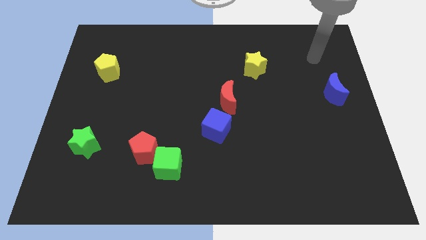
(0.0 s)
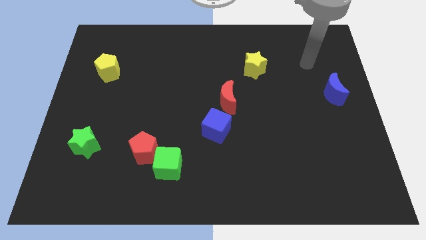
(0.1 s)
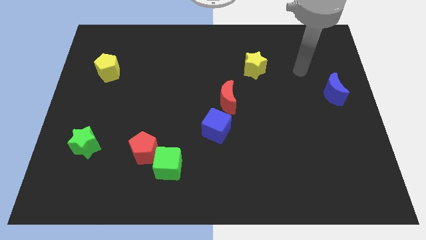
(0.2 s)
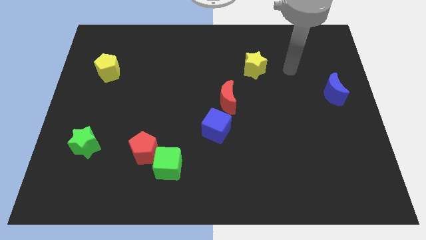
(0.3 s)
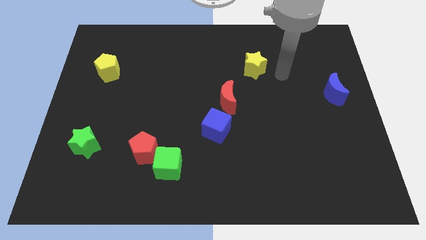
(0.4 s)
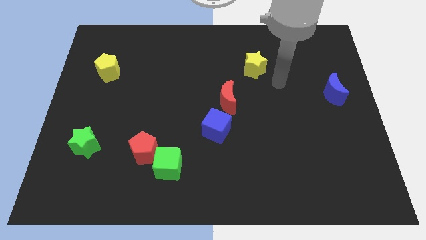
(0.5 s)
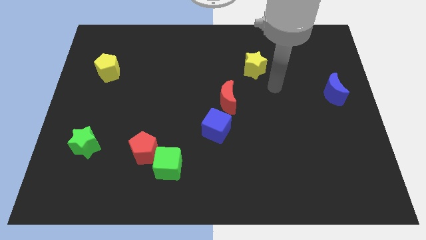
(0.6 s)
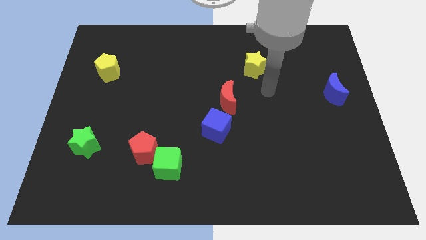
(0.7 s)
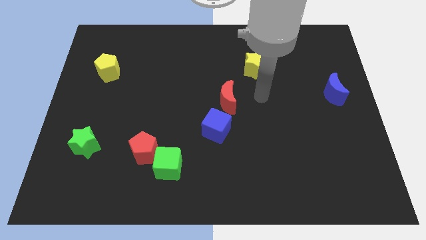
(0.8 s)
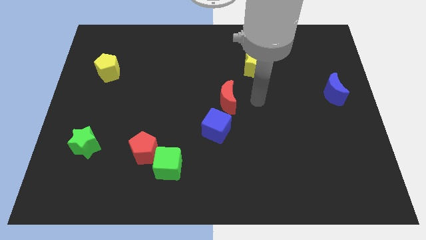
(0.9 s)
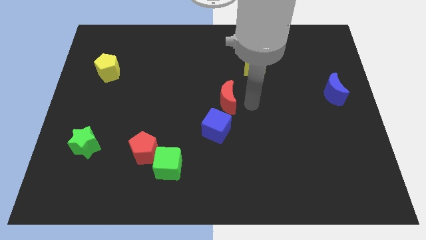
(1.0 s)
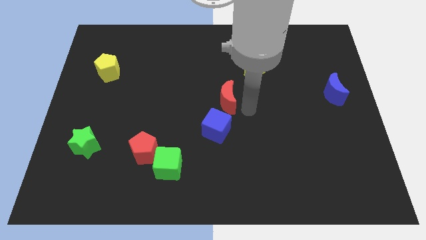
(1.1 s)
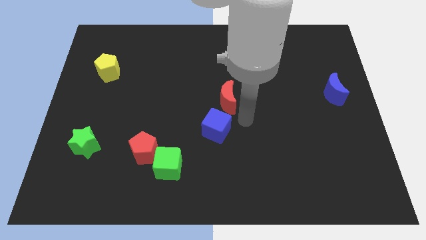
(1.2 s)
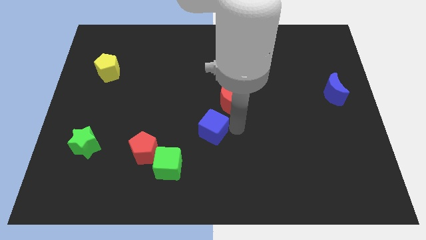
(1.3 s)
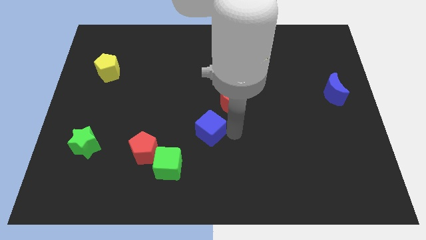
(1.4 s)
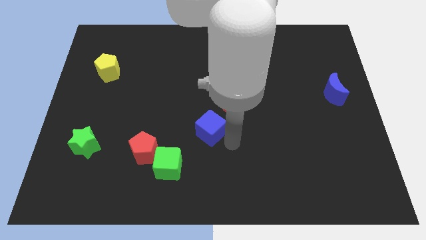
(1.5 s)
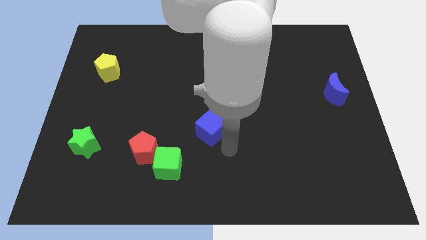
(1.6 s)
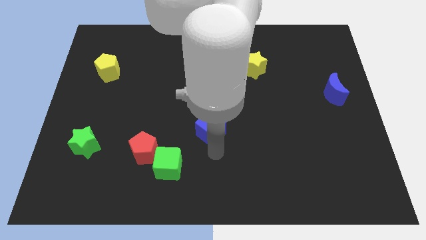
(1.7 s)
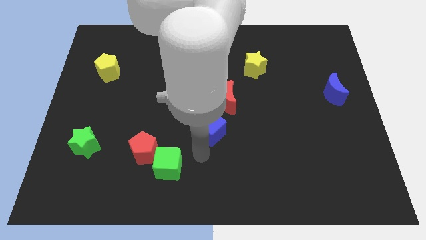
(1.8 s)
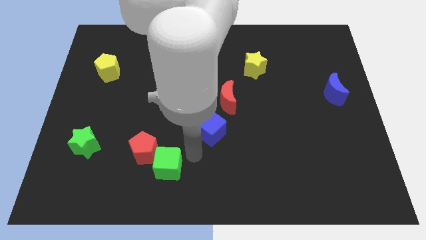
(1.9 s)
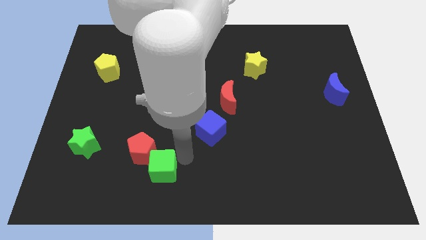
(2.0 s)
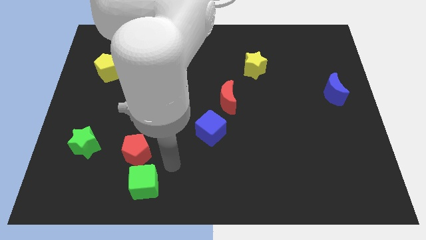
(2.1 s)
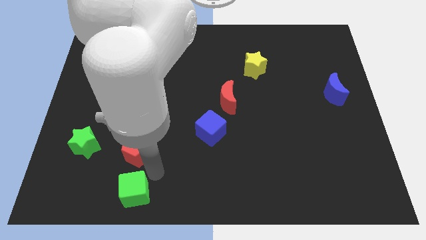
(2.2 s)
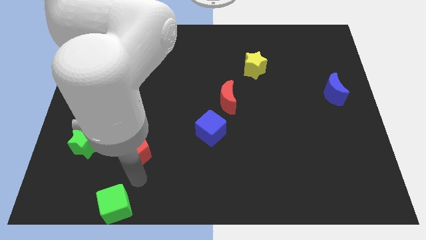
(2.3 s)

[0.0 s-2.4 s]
pull the red pentagon apart from the green cube

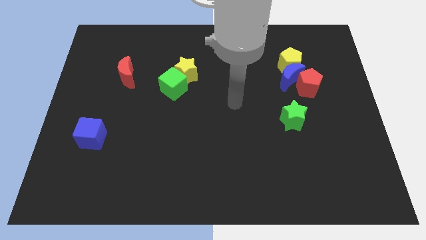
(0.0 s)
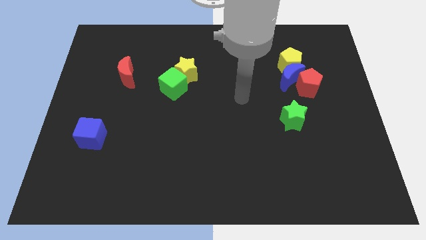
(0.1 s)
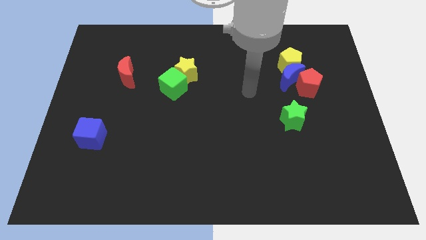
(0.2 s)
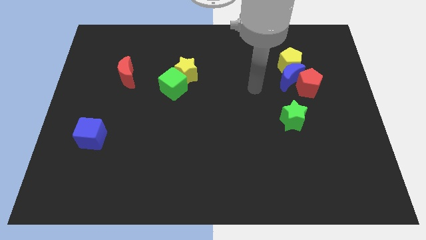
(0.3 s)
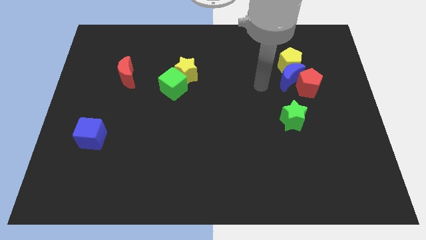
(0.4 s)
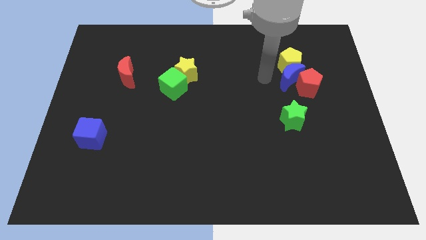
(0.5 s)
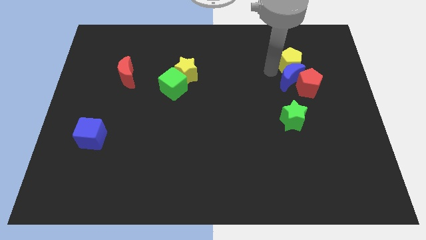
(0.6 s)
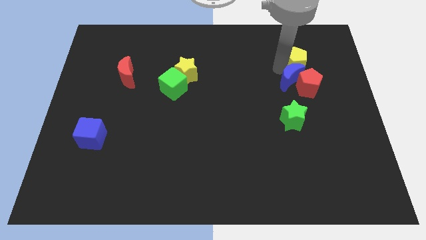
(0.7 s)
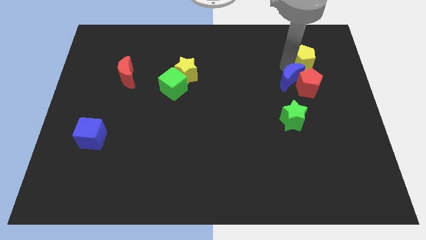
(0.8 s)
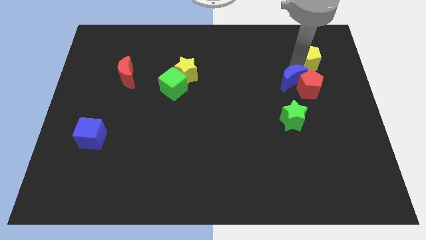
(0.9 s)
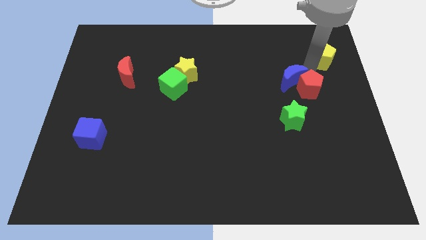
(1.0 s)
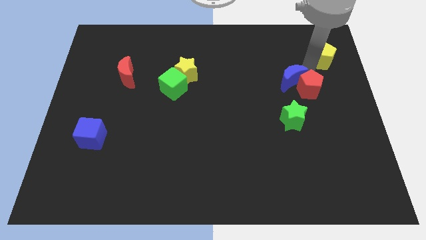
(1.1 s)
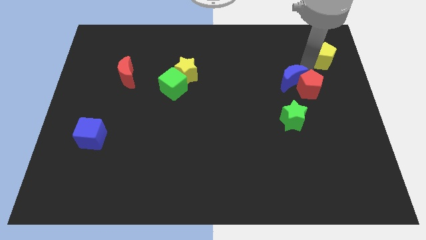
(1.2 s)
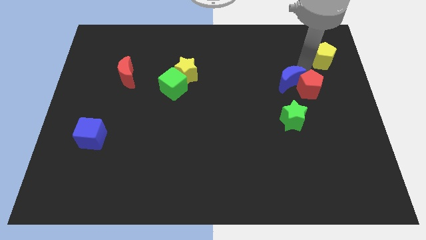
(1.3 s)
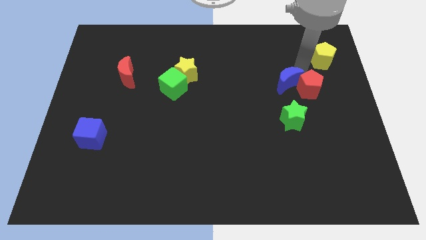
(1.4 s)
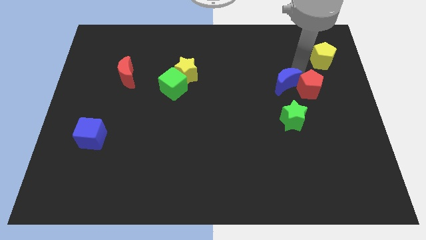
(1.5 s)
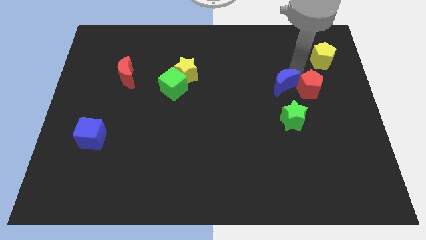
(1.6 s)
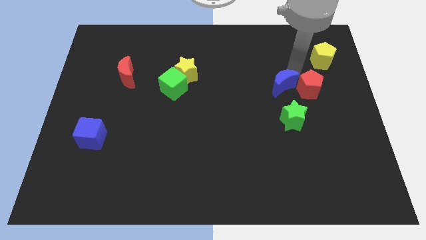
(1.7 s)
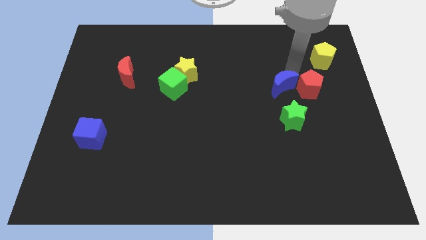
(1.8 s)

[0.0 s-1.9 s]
separate the blue moon from the yellow pentagon and red pentagon

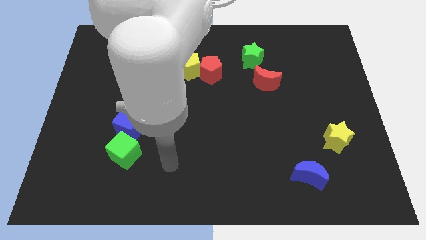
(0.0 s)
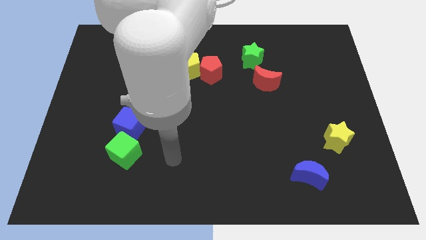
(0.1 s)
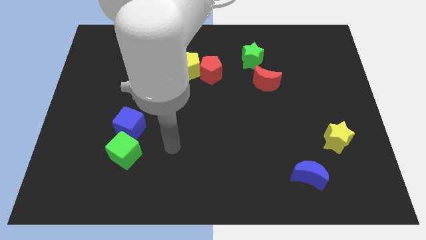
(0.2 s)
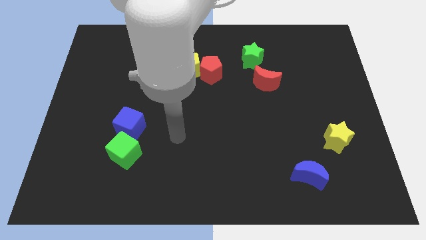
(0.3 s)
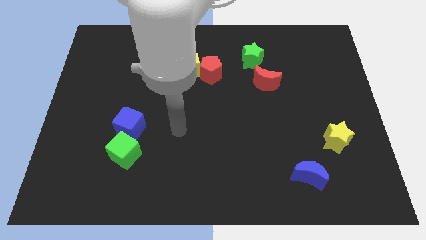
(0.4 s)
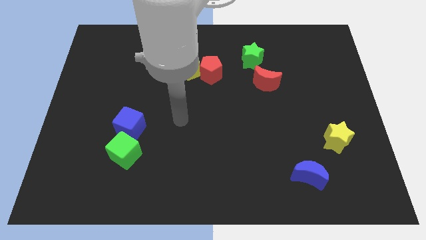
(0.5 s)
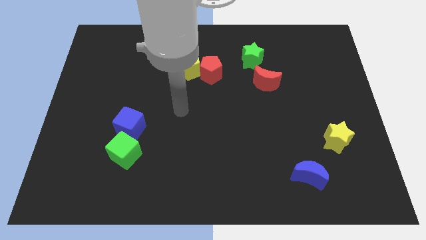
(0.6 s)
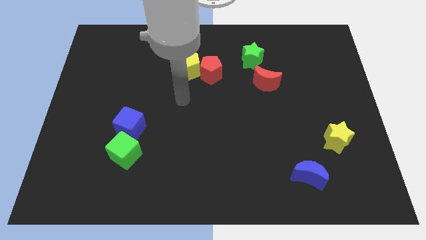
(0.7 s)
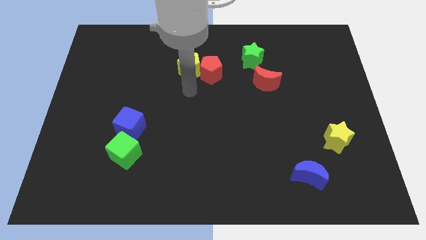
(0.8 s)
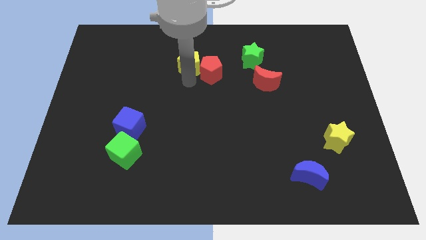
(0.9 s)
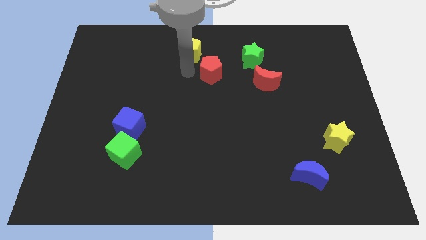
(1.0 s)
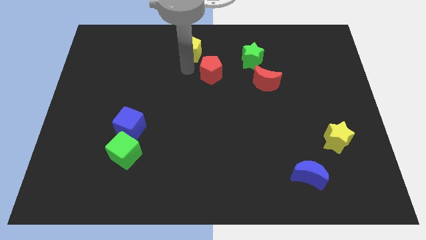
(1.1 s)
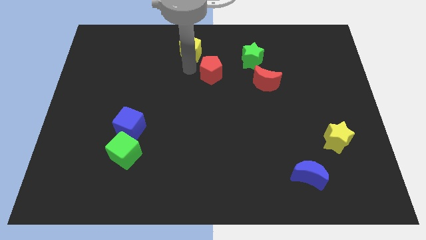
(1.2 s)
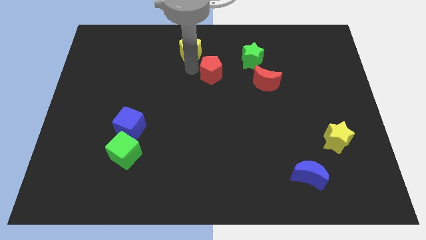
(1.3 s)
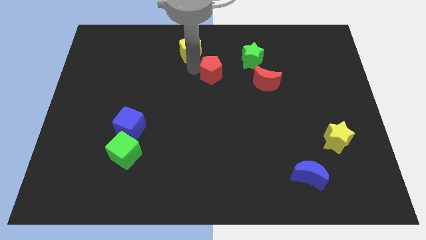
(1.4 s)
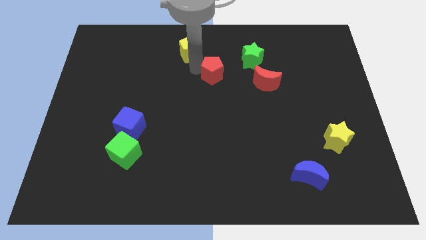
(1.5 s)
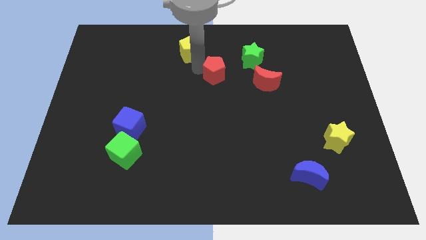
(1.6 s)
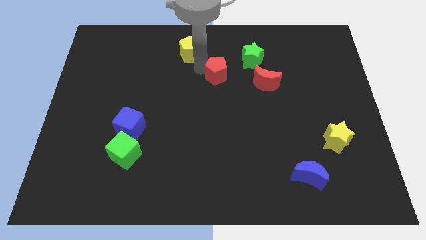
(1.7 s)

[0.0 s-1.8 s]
move the red pentagon away from the yellow pentagon

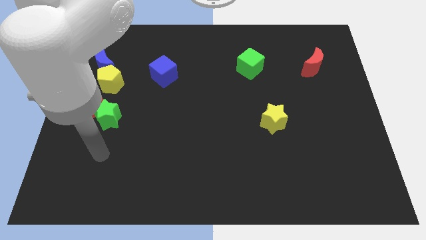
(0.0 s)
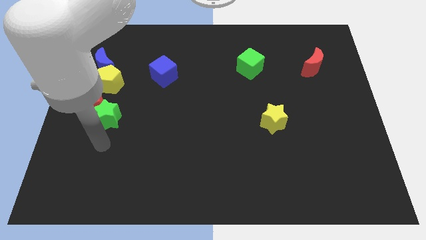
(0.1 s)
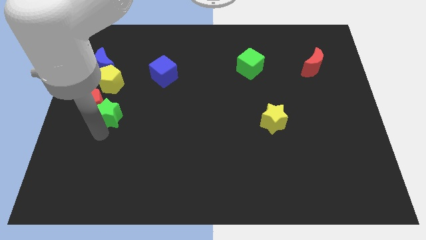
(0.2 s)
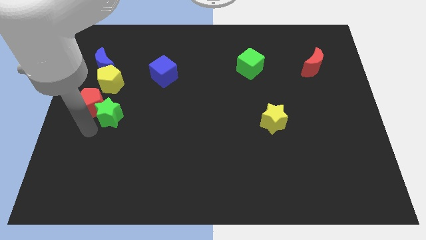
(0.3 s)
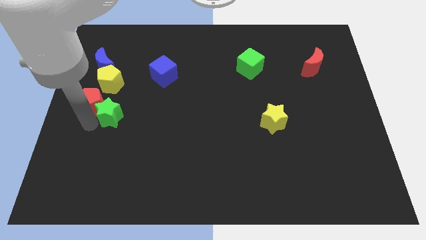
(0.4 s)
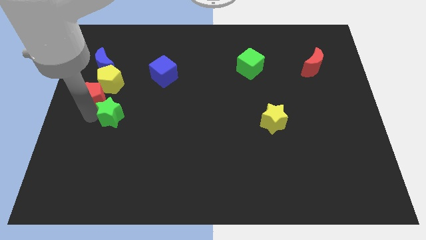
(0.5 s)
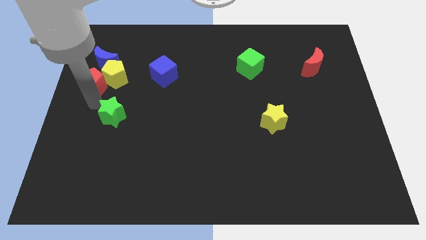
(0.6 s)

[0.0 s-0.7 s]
pull the green star apart from the red pentagon

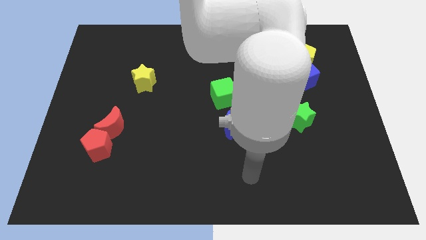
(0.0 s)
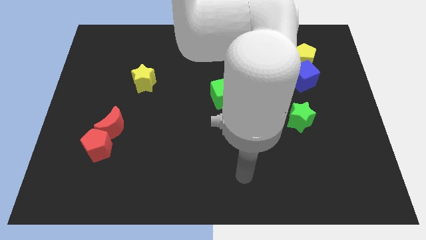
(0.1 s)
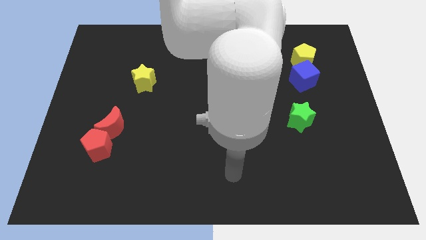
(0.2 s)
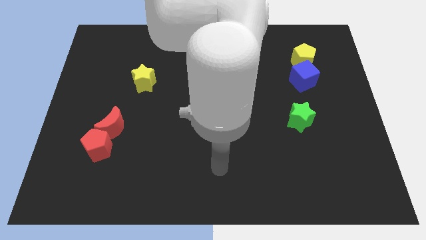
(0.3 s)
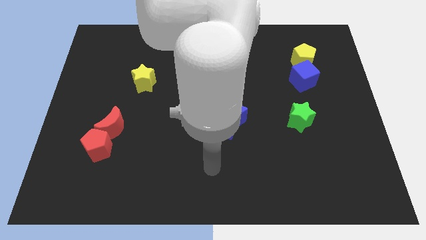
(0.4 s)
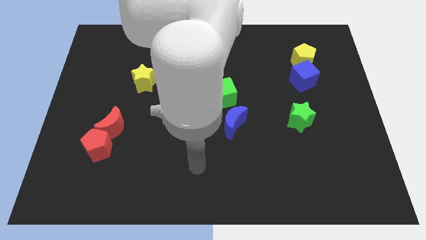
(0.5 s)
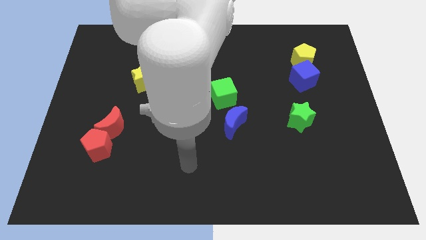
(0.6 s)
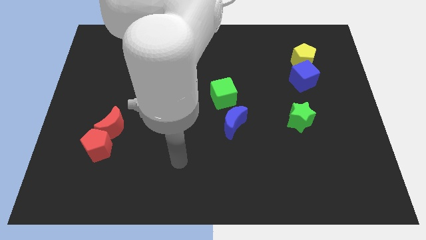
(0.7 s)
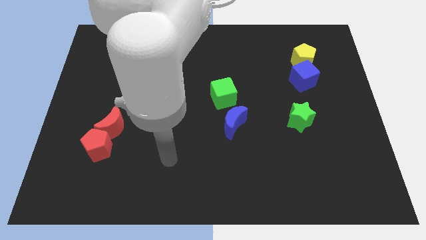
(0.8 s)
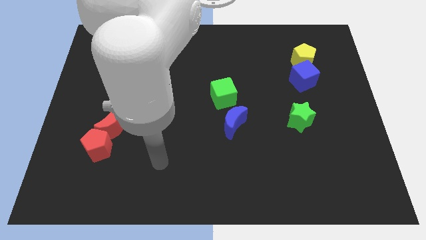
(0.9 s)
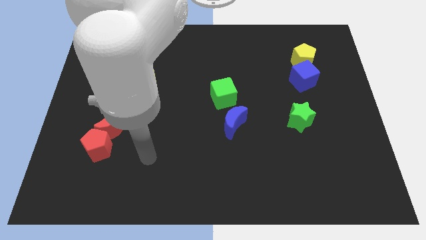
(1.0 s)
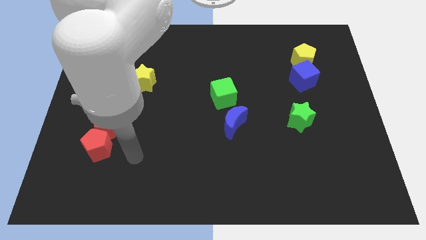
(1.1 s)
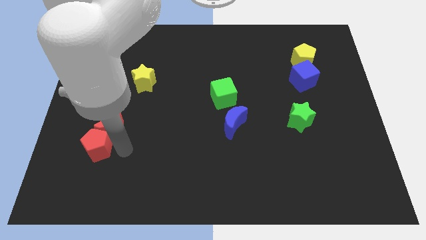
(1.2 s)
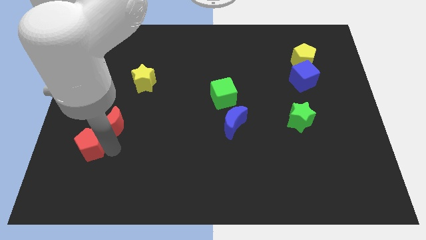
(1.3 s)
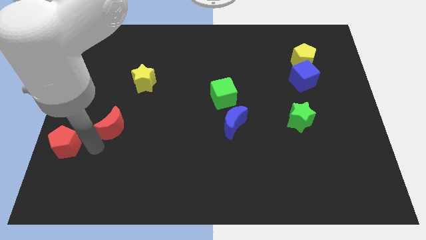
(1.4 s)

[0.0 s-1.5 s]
move the red moon away from the red pentagon

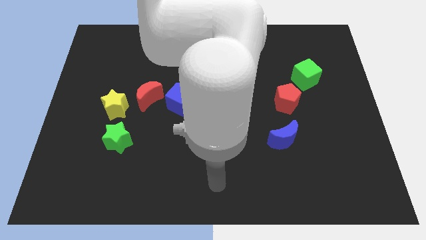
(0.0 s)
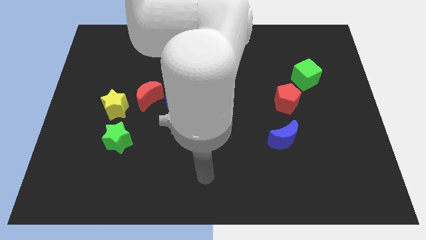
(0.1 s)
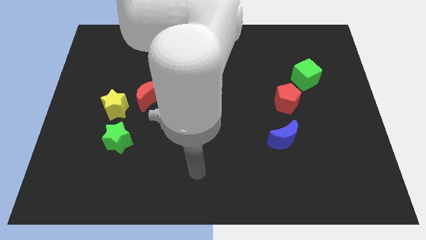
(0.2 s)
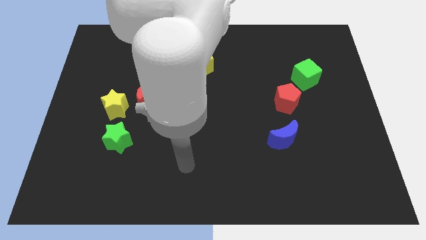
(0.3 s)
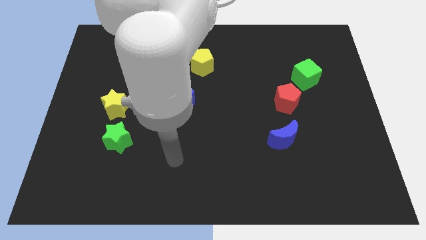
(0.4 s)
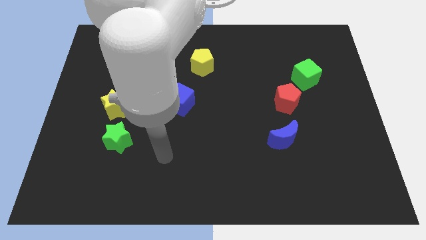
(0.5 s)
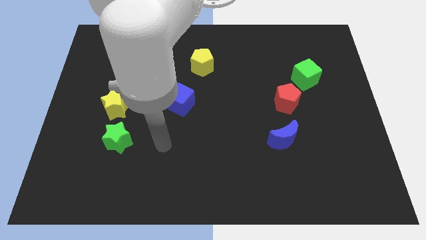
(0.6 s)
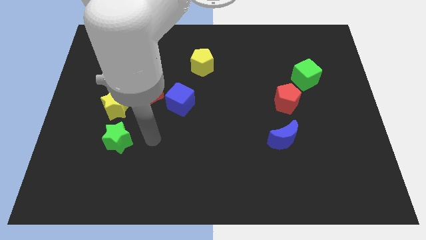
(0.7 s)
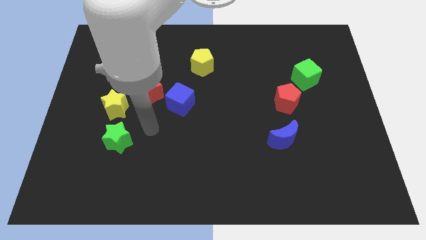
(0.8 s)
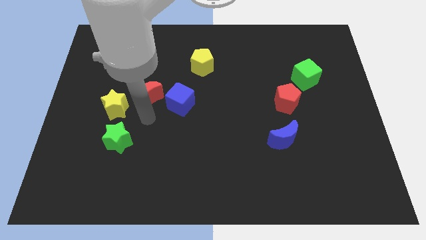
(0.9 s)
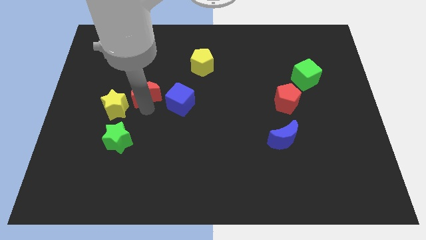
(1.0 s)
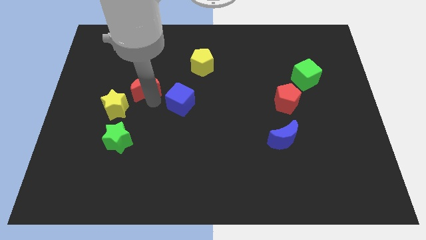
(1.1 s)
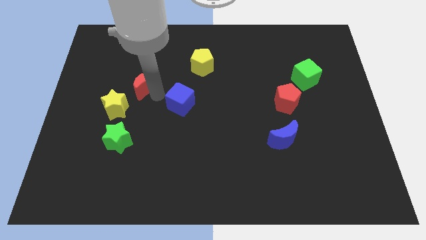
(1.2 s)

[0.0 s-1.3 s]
separate the blue cube from the red moon
